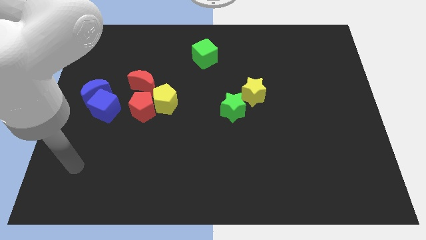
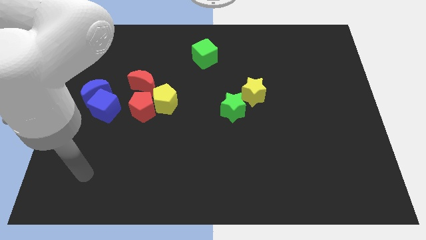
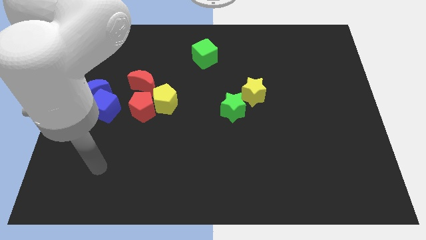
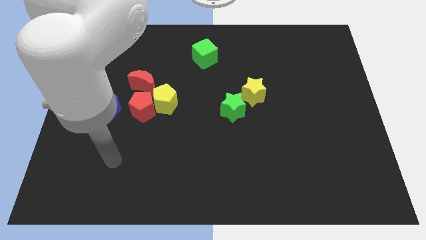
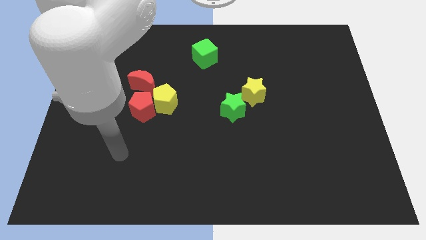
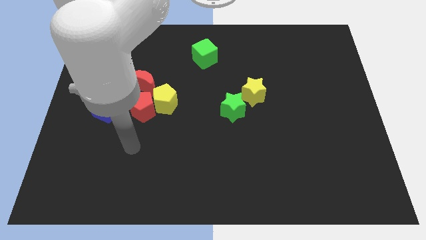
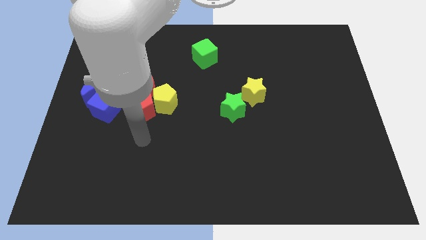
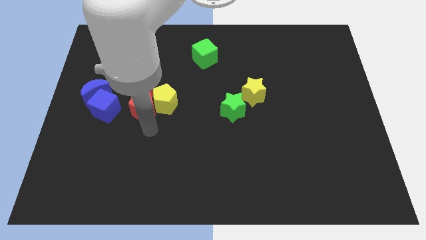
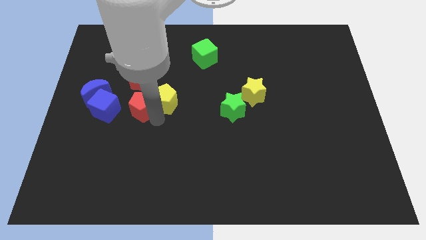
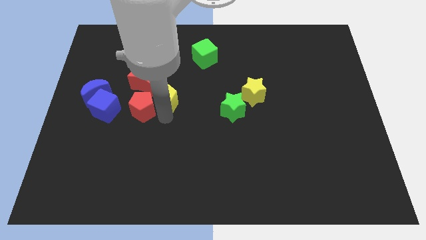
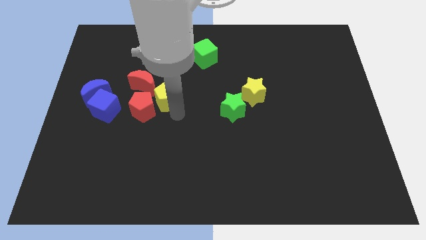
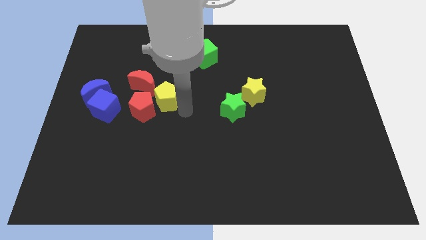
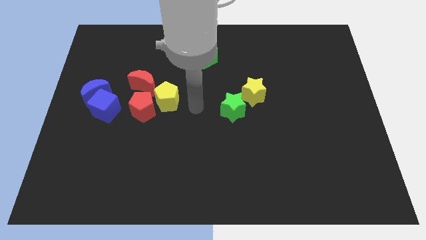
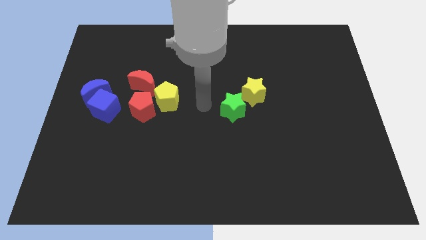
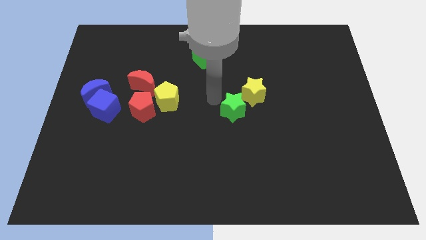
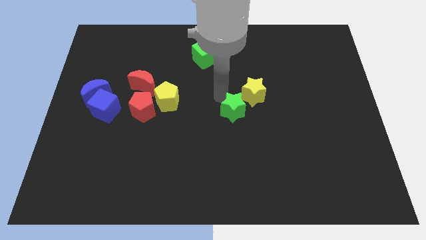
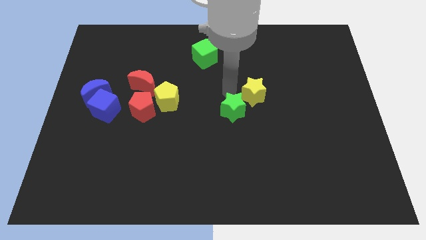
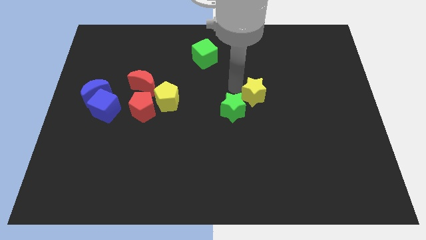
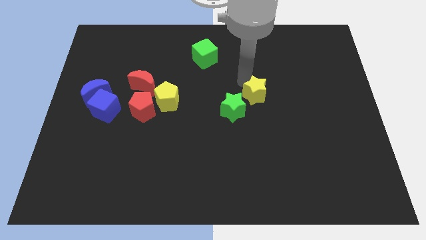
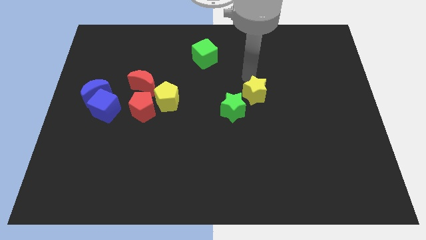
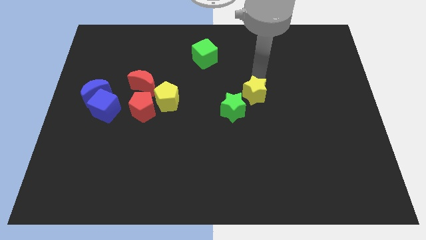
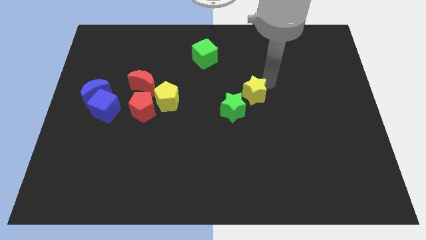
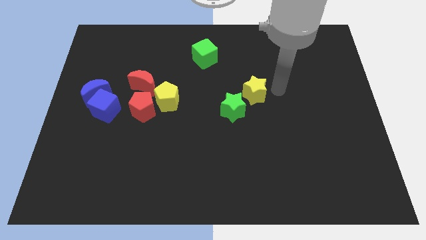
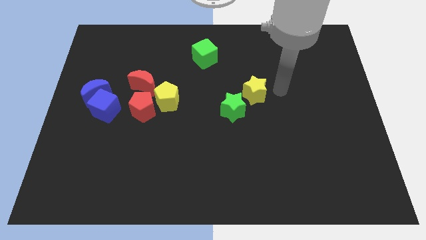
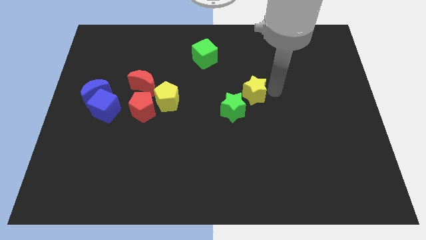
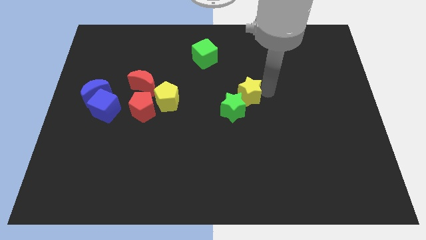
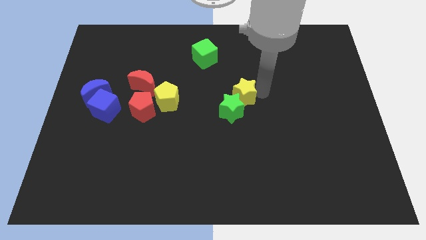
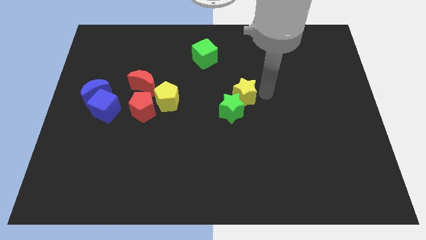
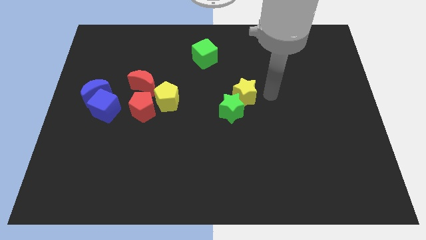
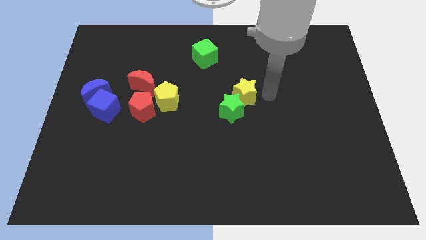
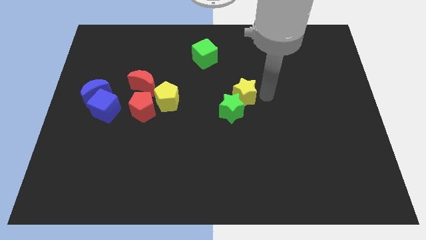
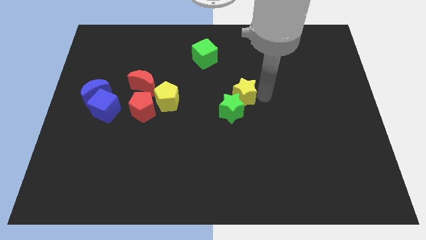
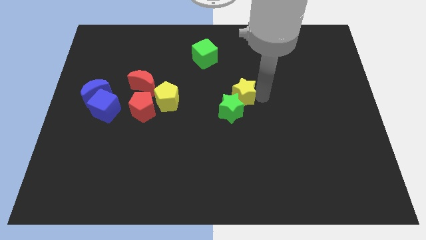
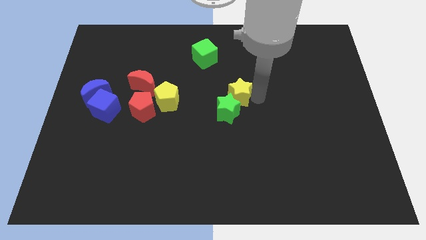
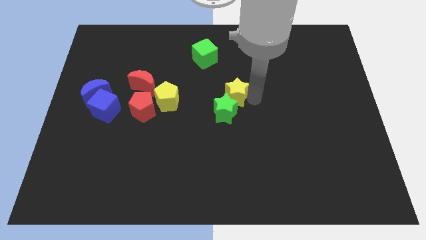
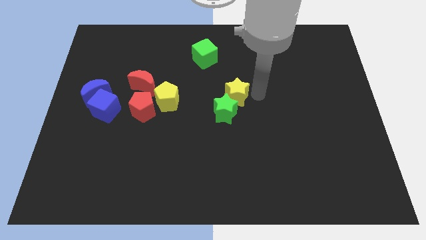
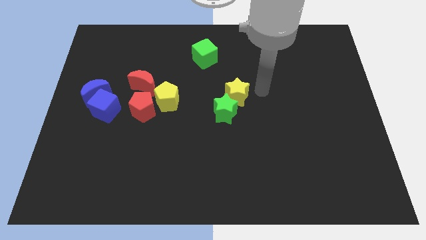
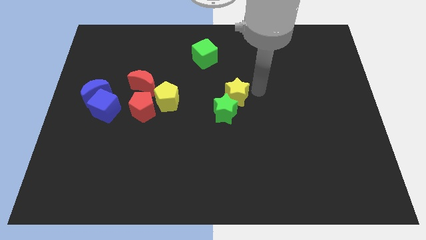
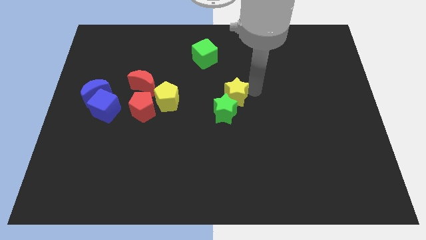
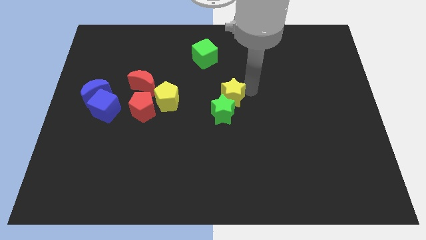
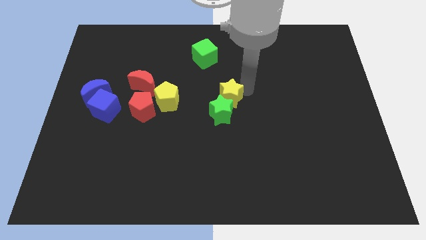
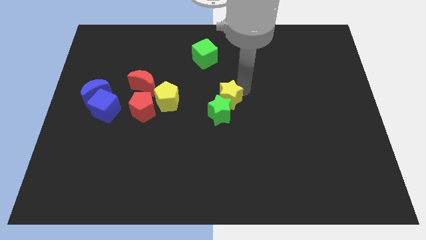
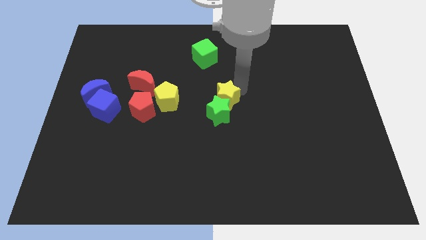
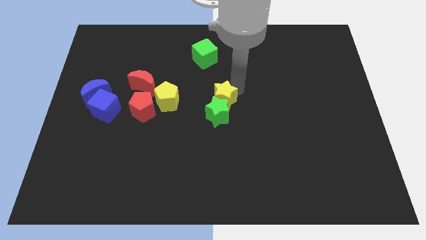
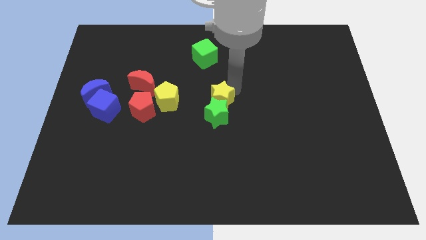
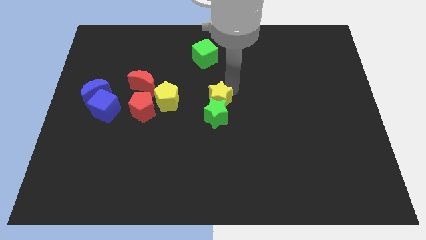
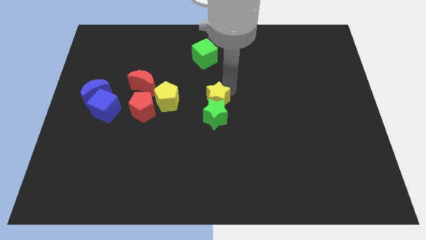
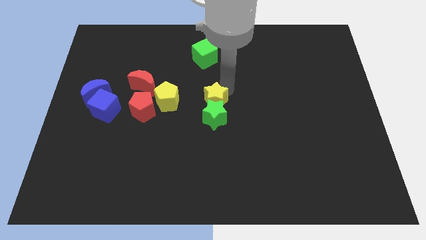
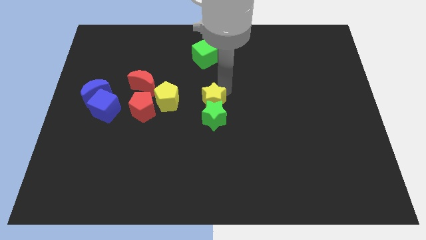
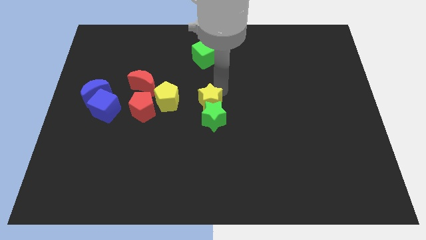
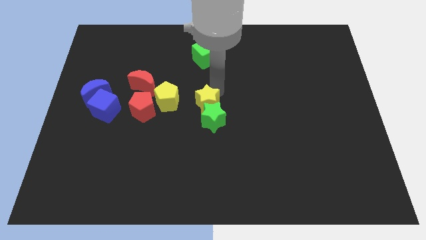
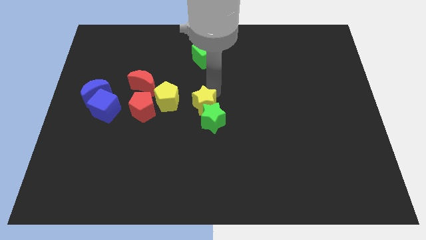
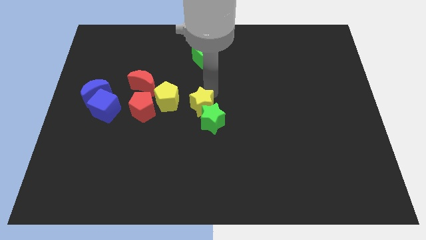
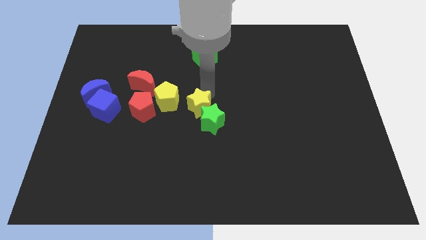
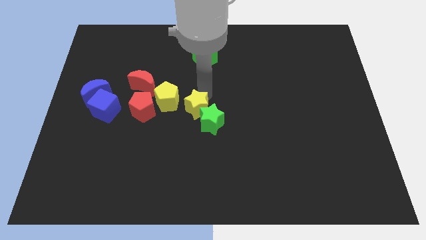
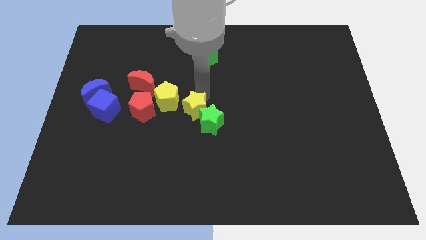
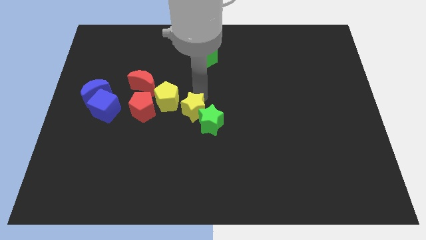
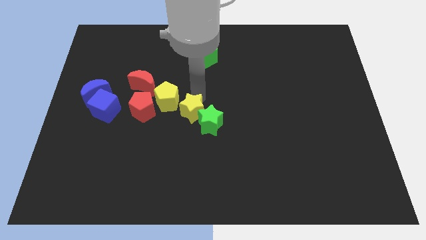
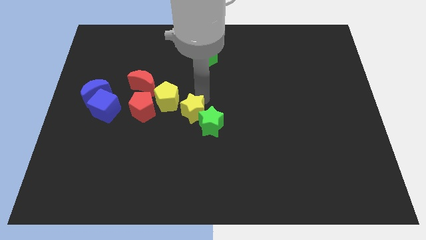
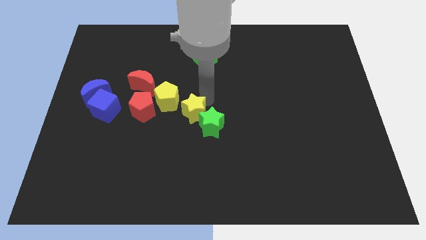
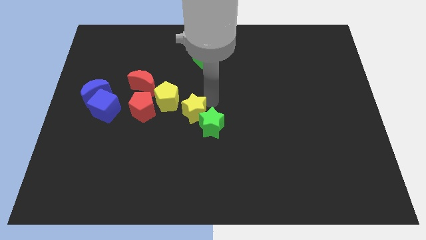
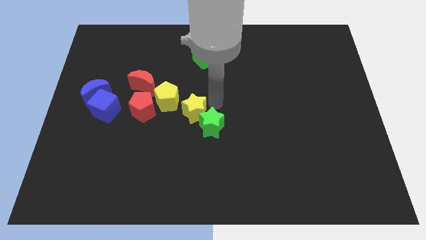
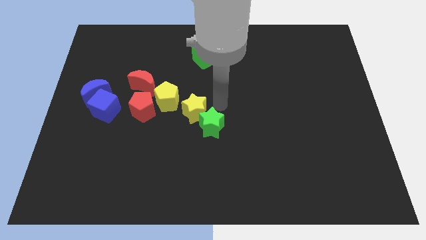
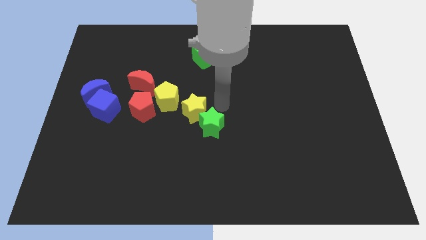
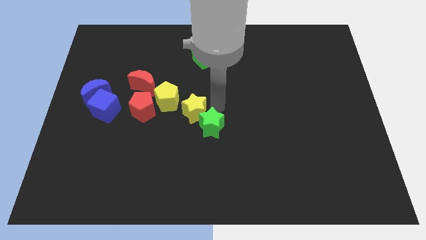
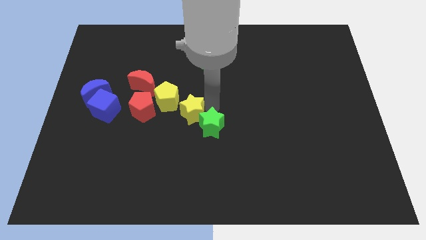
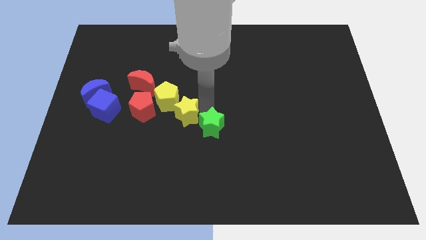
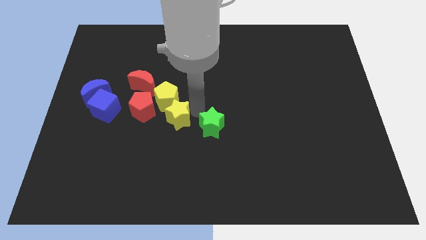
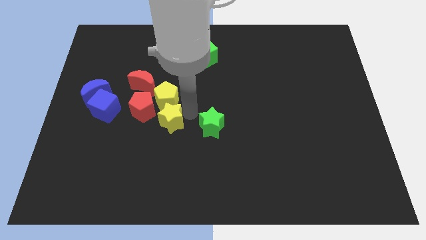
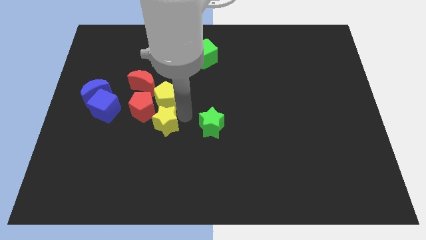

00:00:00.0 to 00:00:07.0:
slide the yellow star diagonally down and to the left of the yellow pentagon
